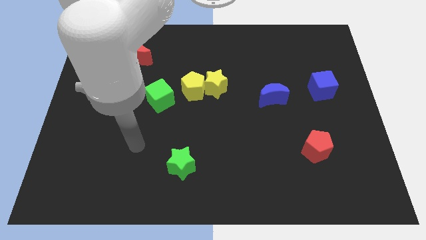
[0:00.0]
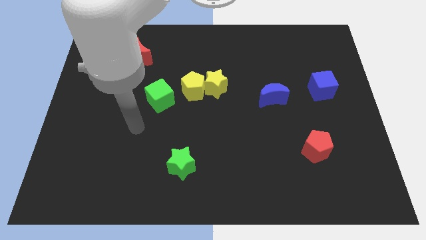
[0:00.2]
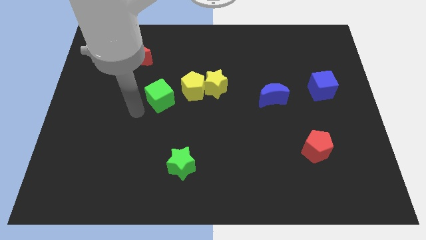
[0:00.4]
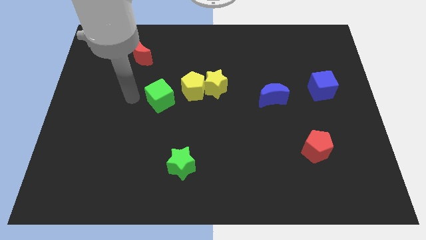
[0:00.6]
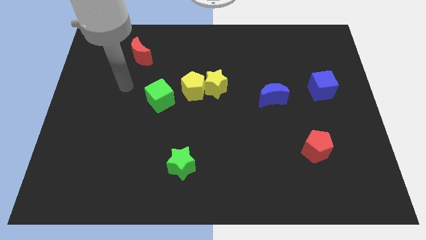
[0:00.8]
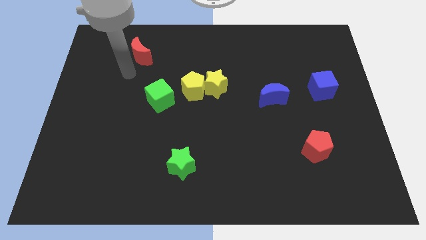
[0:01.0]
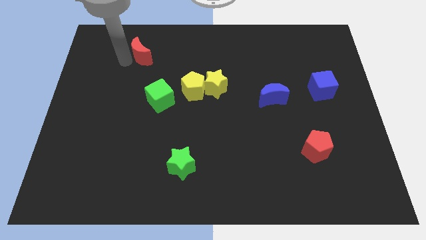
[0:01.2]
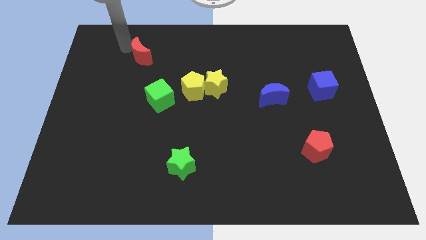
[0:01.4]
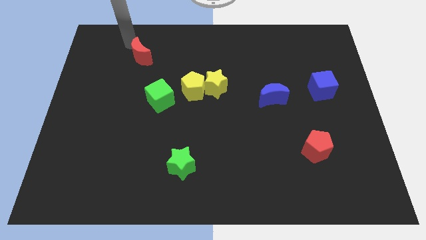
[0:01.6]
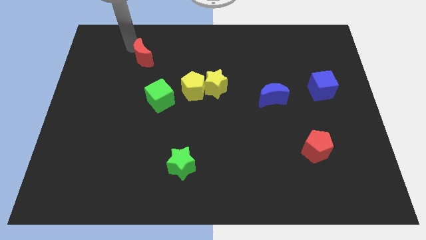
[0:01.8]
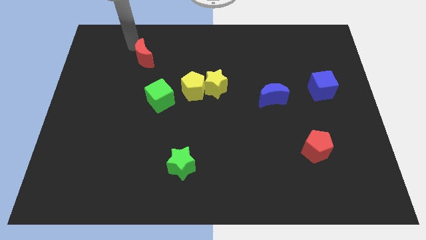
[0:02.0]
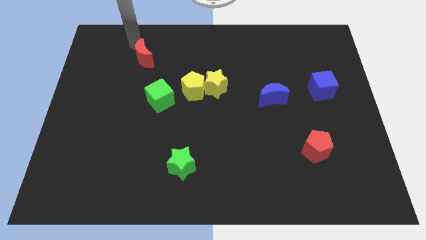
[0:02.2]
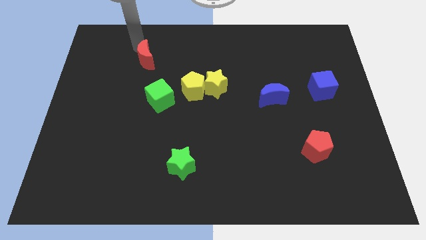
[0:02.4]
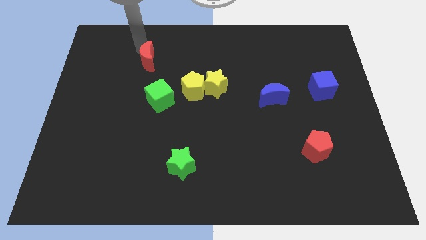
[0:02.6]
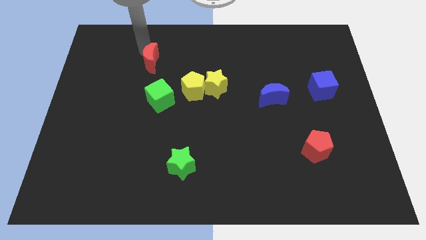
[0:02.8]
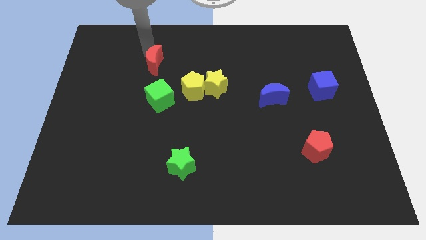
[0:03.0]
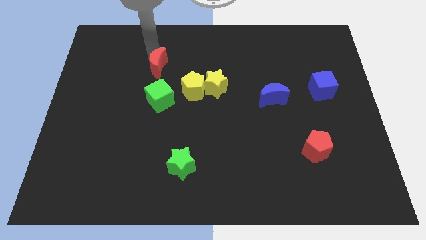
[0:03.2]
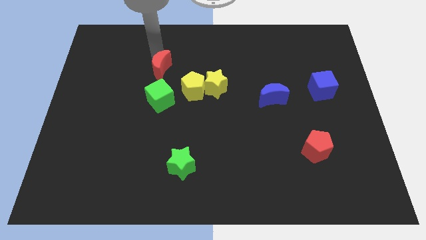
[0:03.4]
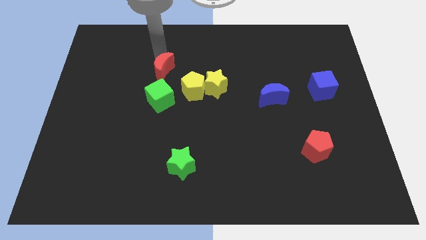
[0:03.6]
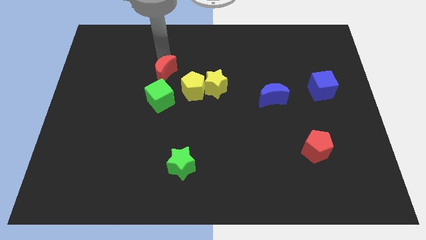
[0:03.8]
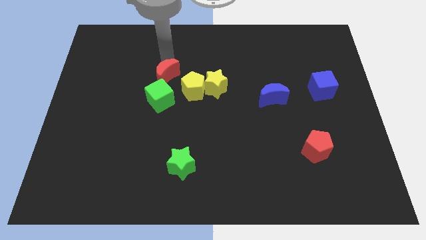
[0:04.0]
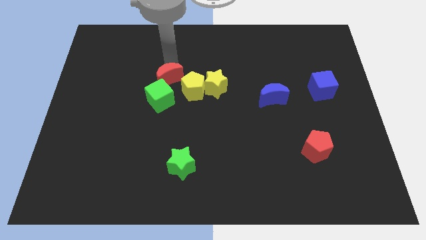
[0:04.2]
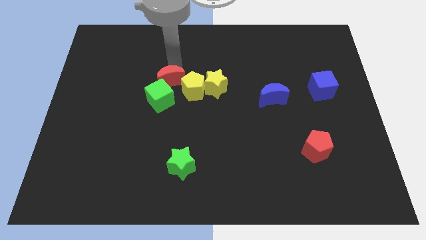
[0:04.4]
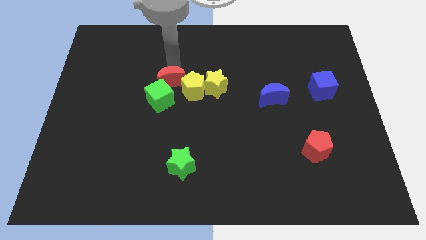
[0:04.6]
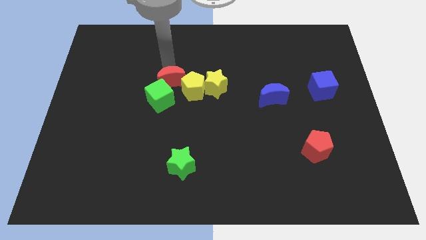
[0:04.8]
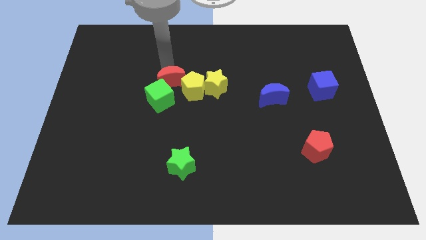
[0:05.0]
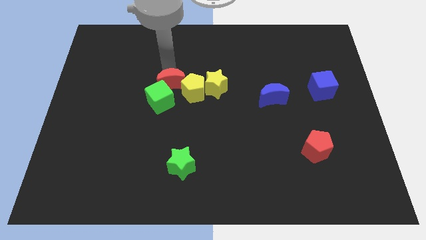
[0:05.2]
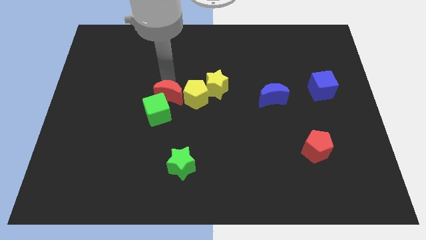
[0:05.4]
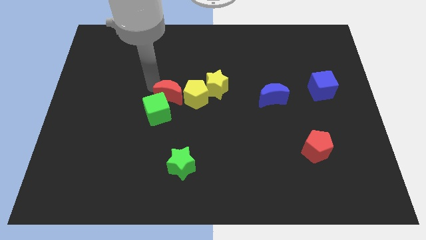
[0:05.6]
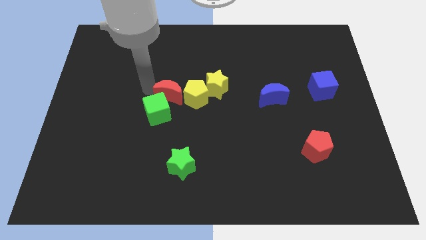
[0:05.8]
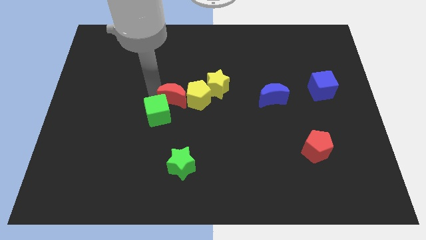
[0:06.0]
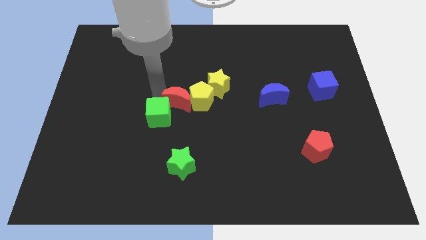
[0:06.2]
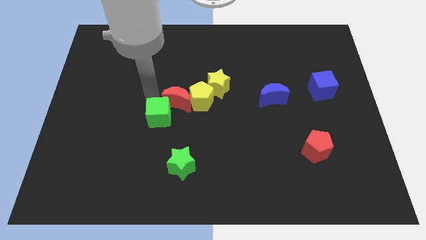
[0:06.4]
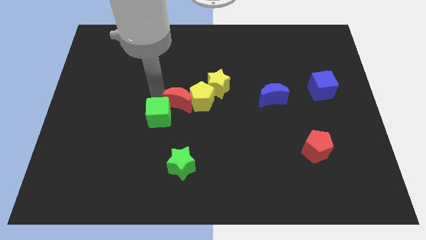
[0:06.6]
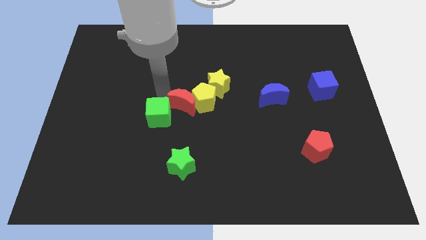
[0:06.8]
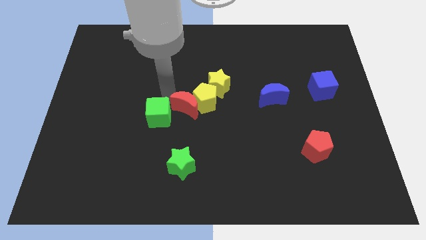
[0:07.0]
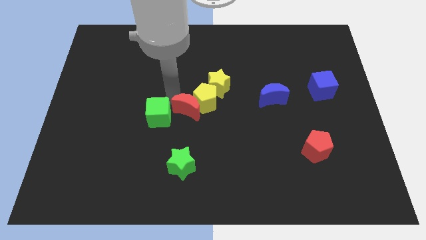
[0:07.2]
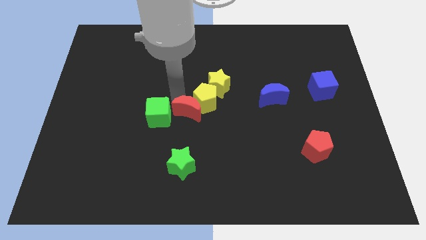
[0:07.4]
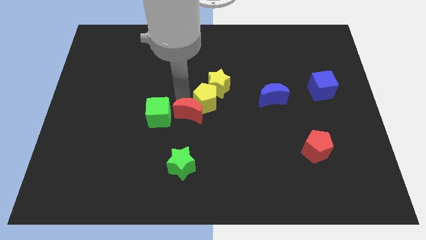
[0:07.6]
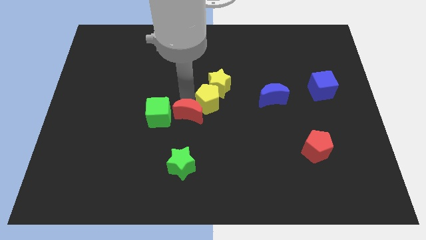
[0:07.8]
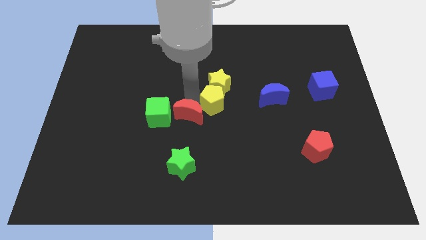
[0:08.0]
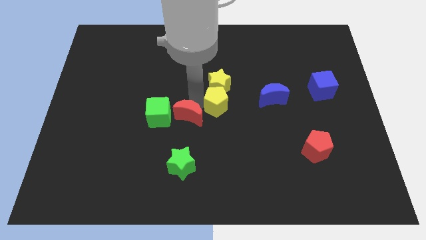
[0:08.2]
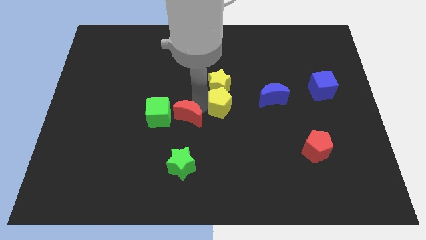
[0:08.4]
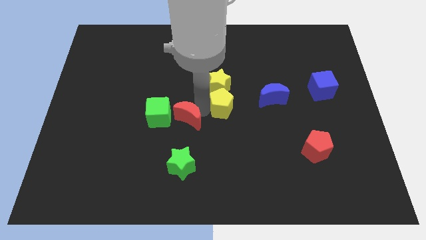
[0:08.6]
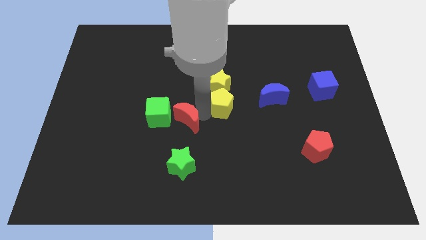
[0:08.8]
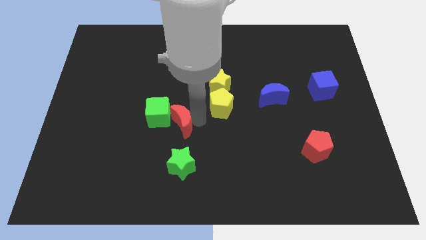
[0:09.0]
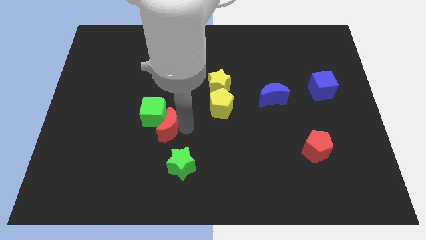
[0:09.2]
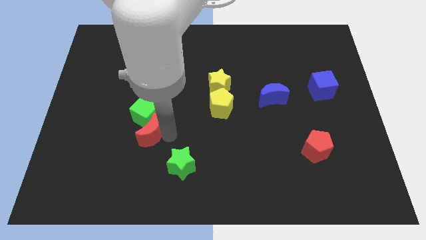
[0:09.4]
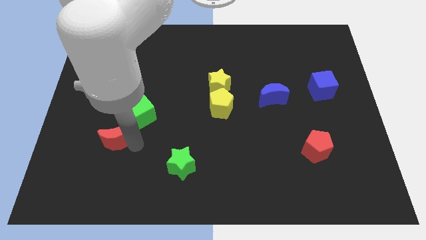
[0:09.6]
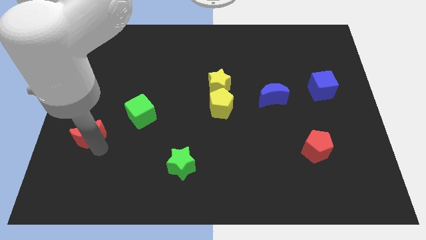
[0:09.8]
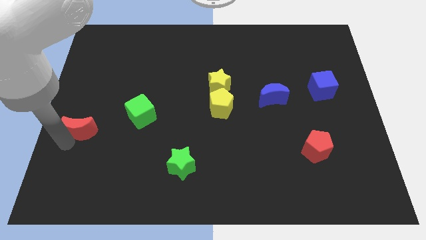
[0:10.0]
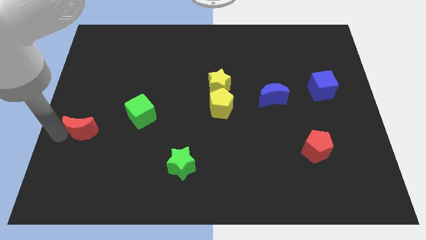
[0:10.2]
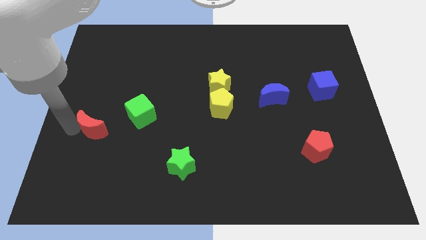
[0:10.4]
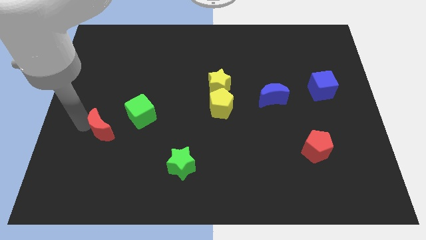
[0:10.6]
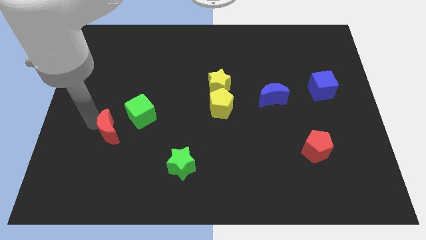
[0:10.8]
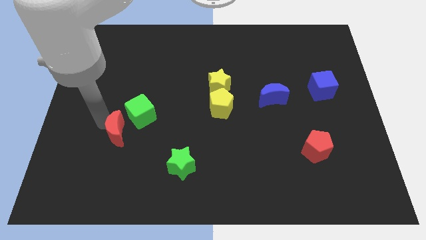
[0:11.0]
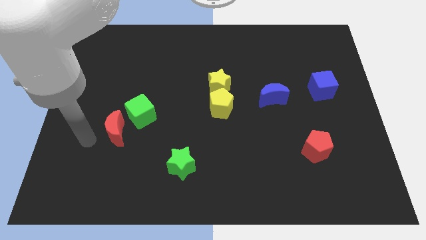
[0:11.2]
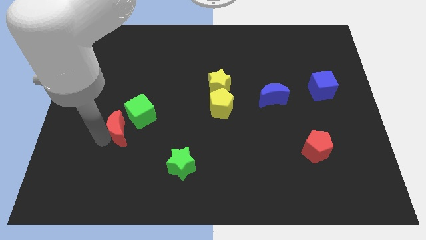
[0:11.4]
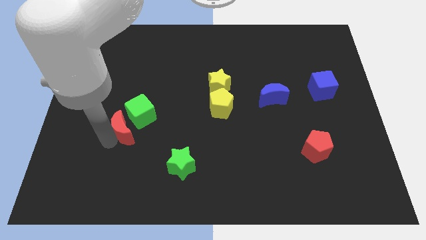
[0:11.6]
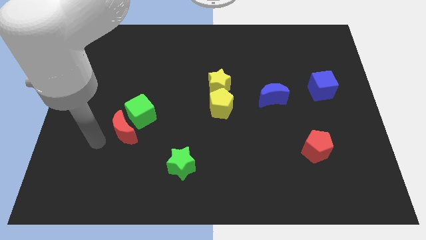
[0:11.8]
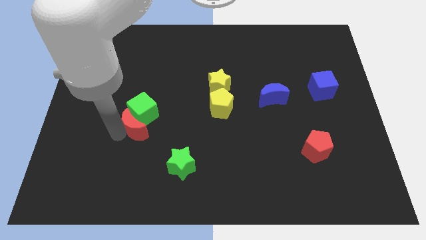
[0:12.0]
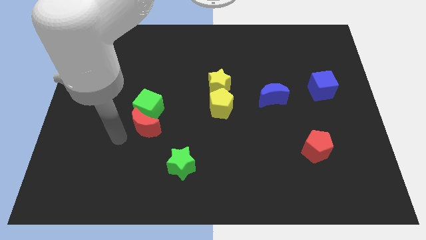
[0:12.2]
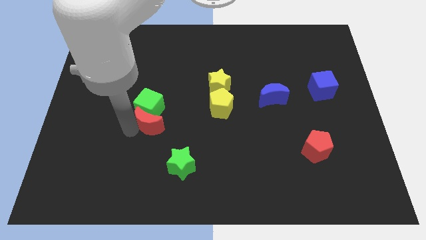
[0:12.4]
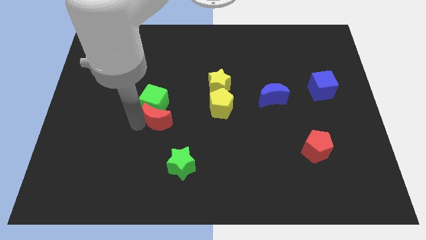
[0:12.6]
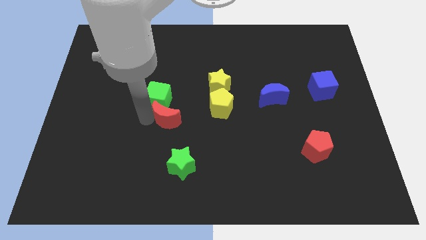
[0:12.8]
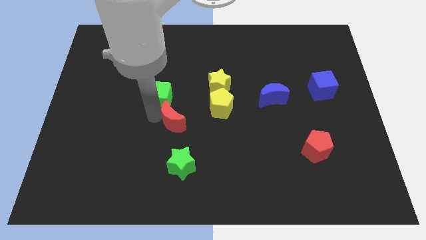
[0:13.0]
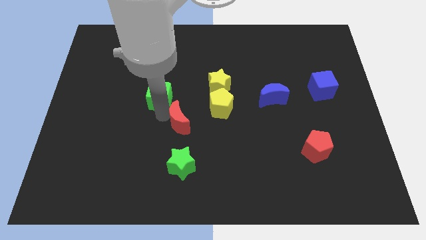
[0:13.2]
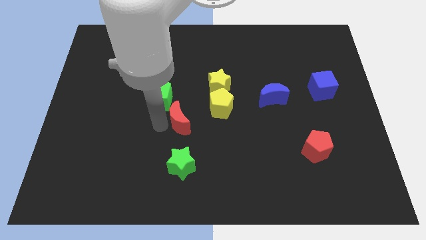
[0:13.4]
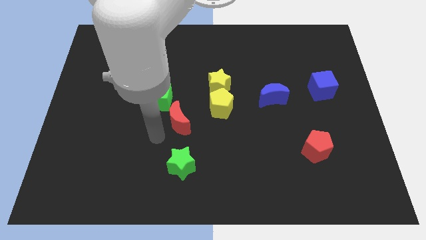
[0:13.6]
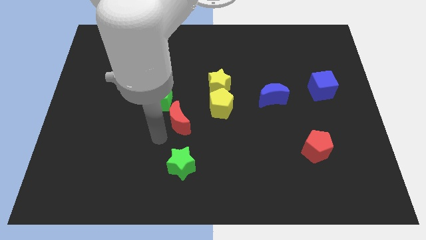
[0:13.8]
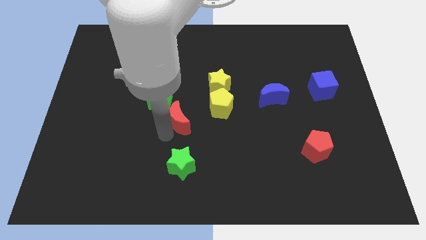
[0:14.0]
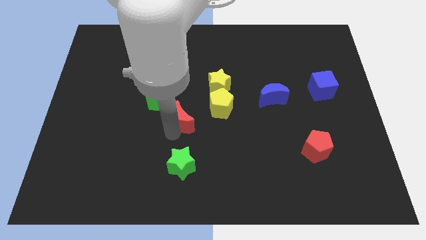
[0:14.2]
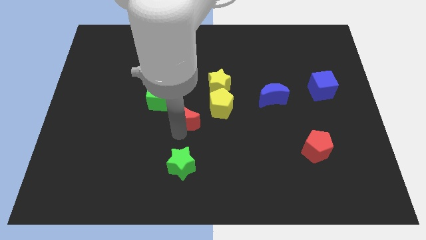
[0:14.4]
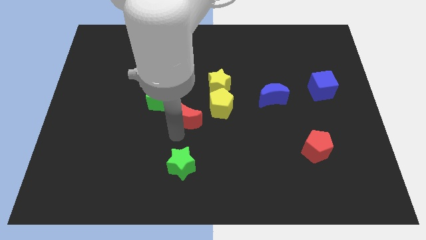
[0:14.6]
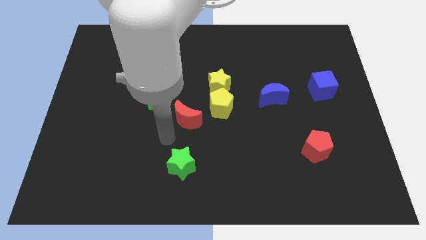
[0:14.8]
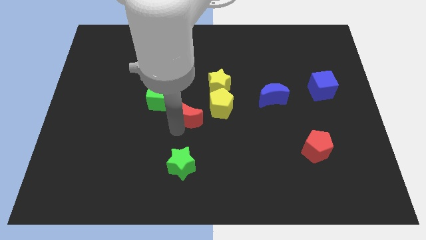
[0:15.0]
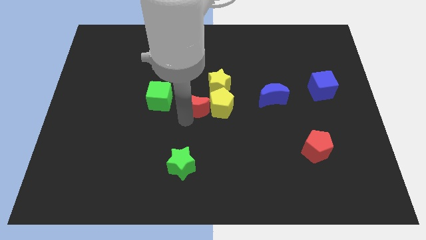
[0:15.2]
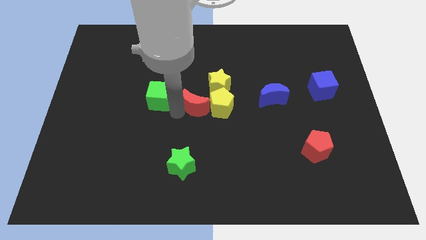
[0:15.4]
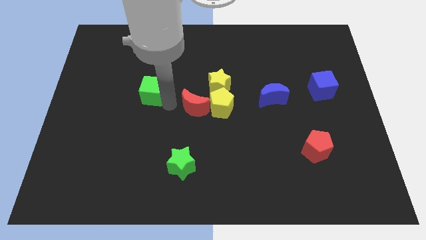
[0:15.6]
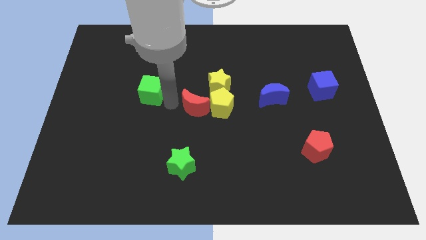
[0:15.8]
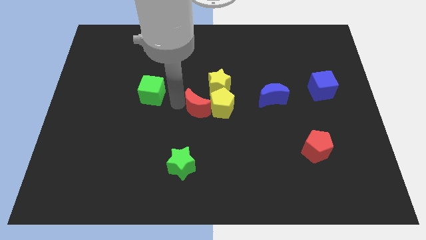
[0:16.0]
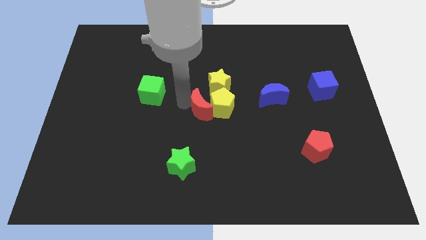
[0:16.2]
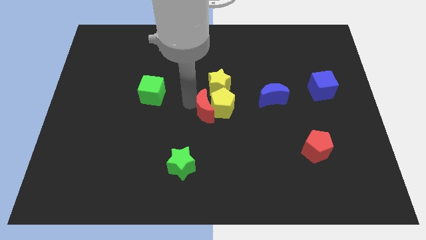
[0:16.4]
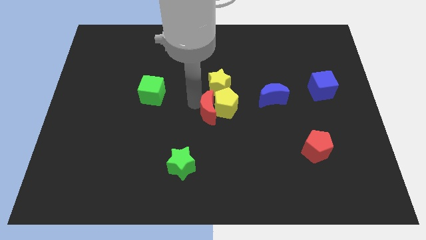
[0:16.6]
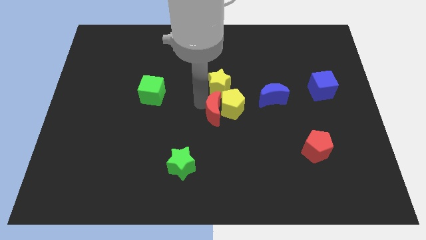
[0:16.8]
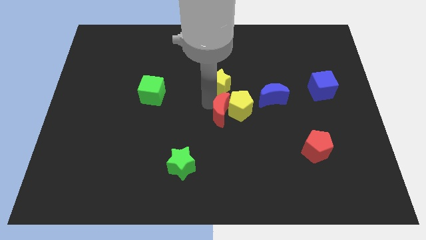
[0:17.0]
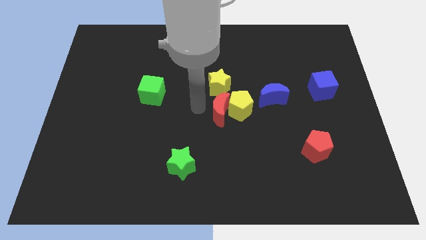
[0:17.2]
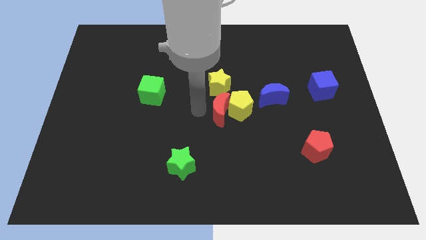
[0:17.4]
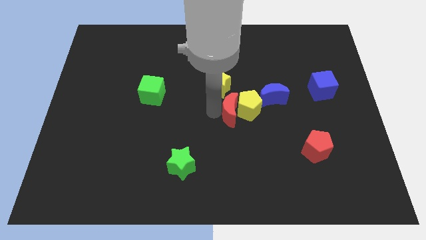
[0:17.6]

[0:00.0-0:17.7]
push the red moon to the bottom left side of the blue moon
